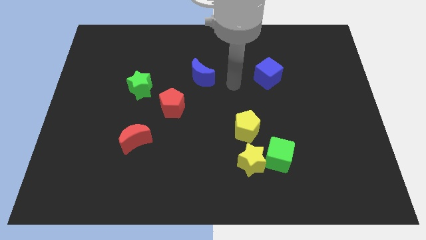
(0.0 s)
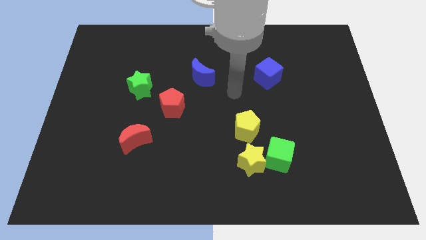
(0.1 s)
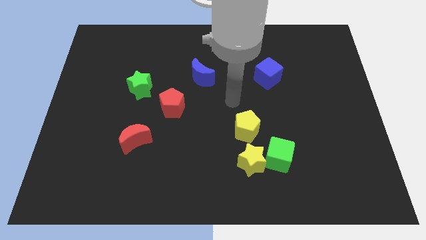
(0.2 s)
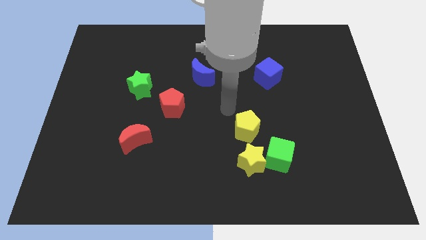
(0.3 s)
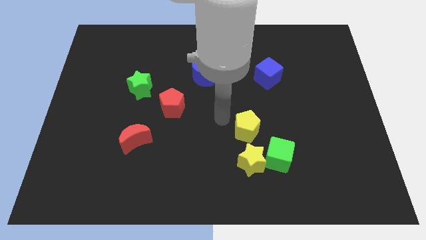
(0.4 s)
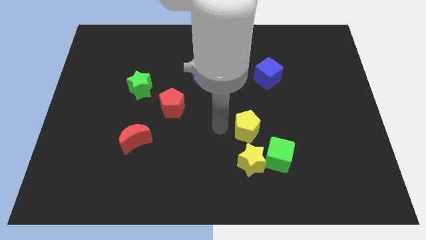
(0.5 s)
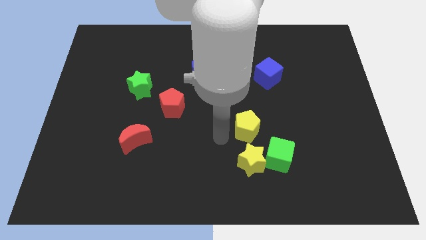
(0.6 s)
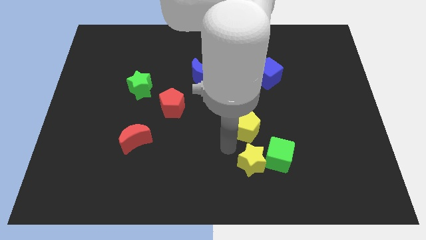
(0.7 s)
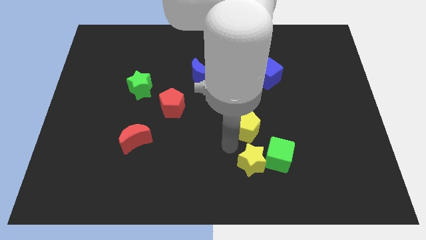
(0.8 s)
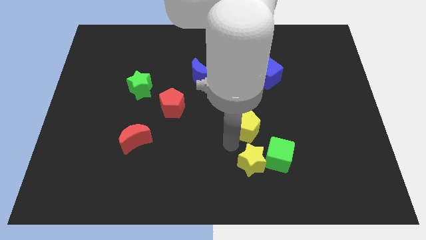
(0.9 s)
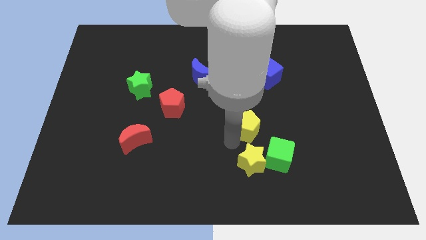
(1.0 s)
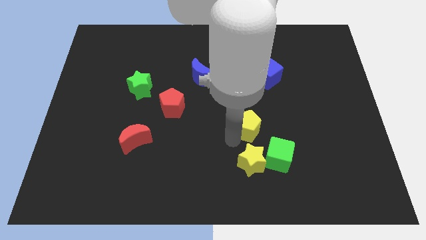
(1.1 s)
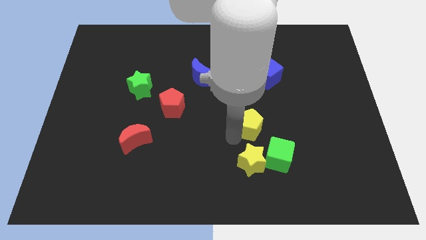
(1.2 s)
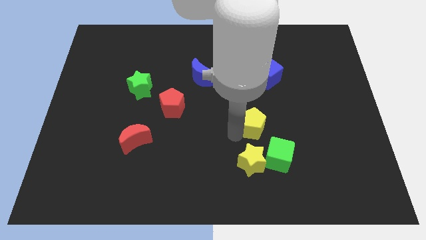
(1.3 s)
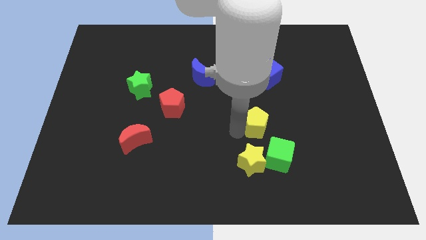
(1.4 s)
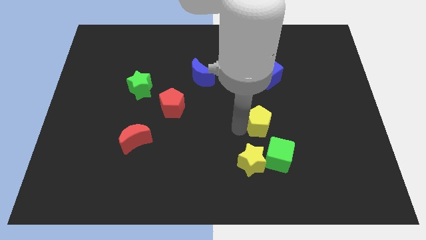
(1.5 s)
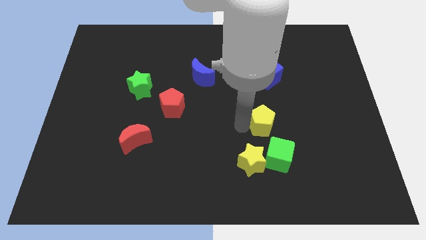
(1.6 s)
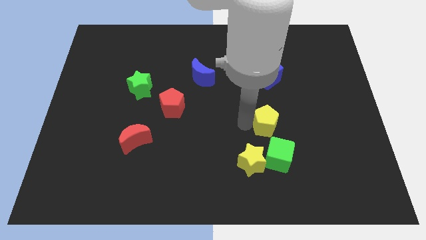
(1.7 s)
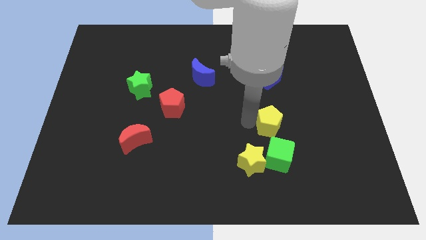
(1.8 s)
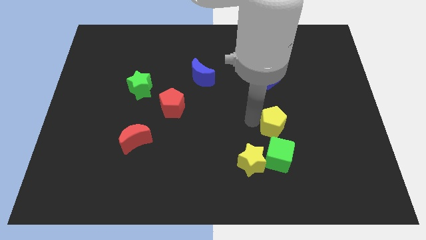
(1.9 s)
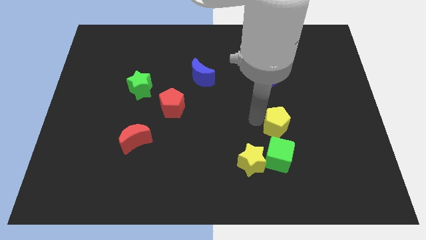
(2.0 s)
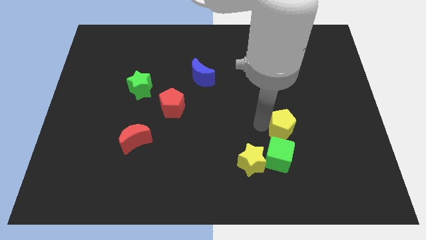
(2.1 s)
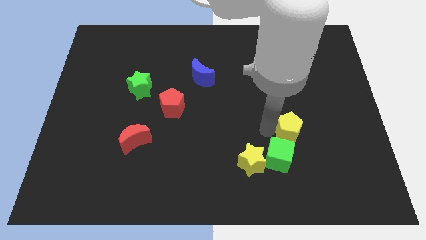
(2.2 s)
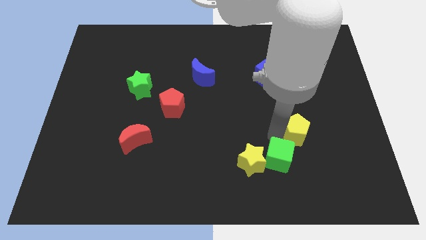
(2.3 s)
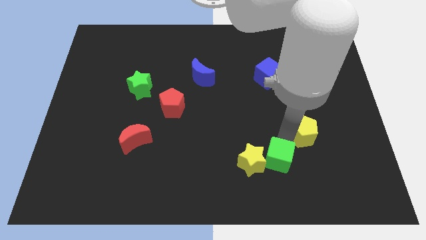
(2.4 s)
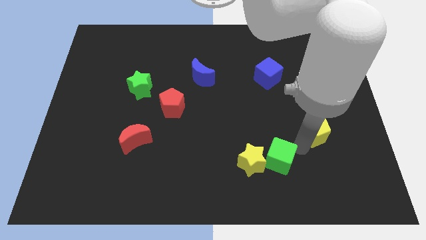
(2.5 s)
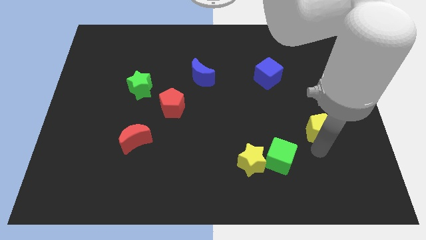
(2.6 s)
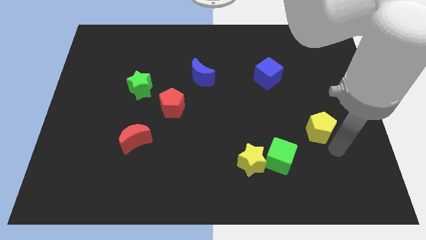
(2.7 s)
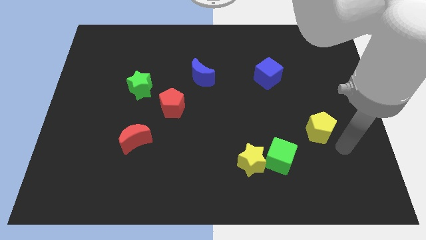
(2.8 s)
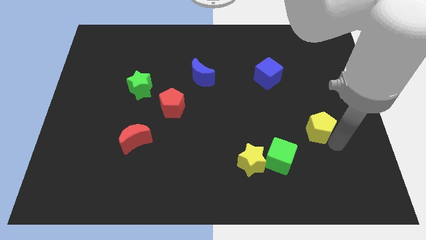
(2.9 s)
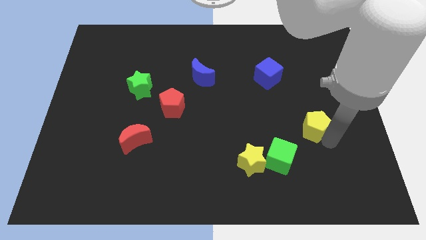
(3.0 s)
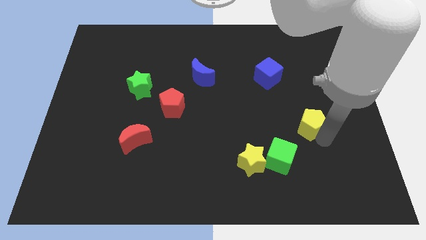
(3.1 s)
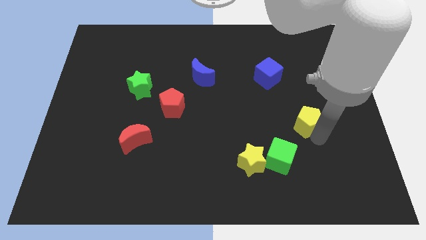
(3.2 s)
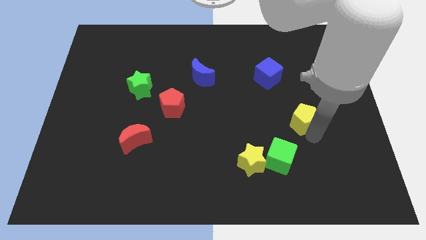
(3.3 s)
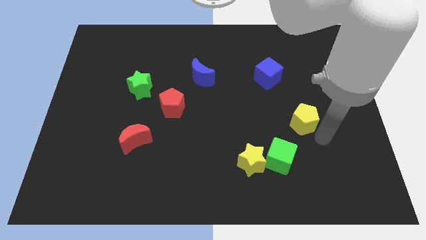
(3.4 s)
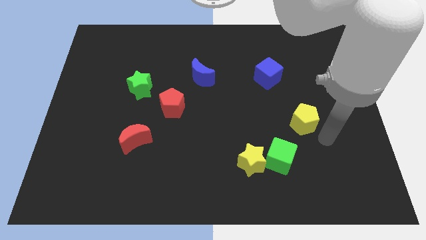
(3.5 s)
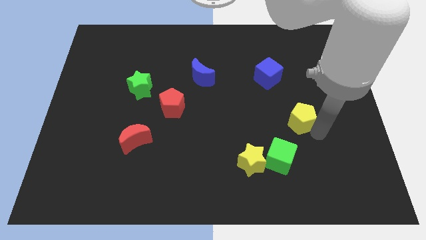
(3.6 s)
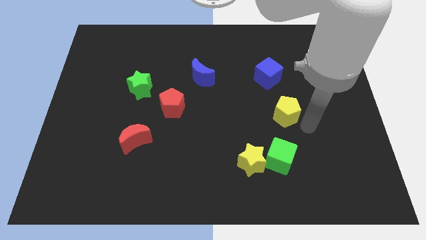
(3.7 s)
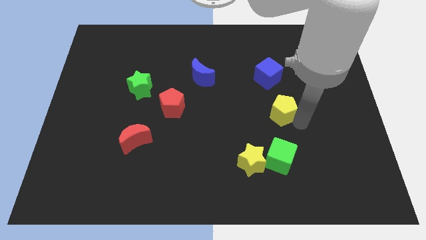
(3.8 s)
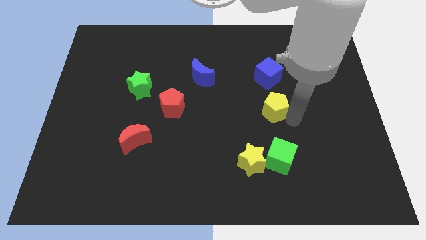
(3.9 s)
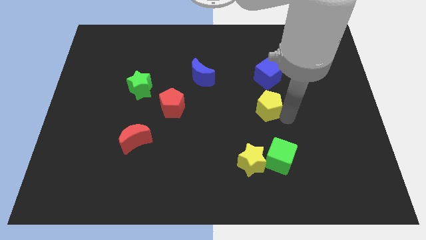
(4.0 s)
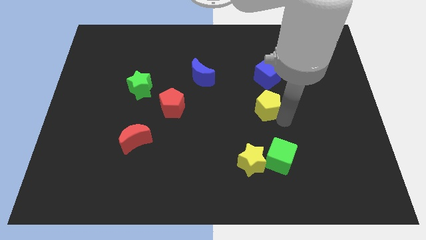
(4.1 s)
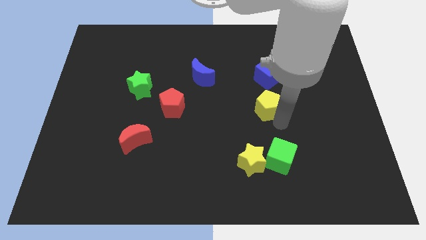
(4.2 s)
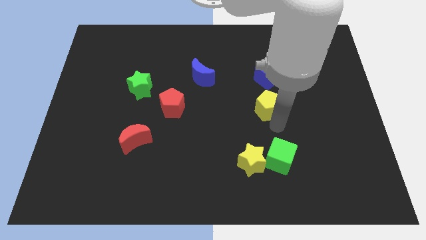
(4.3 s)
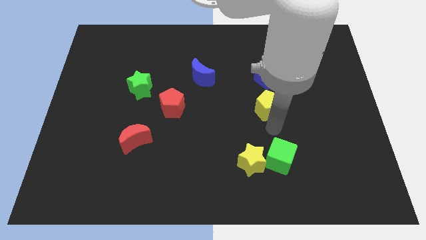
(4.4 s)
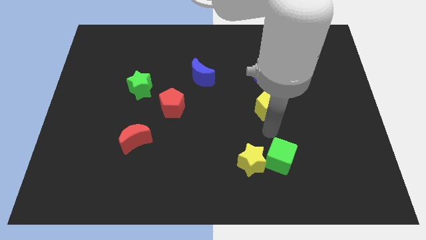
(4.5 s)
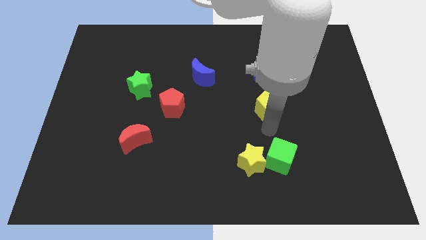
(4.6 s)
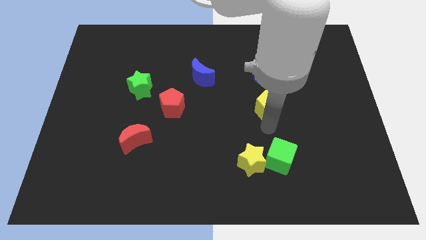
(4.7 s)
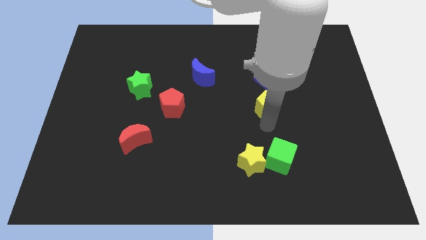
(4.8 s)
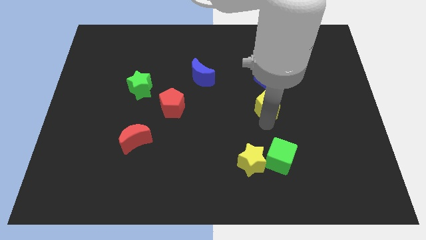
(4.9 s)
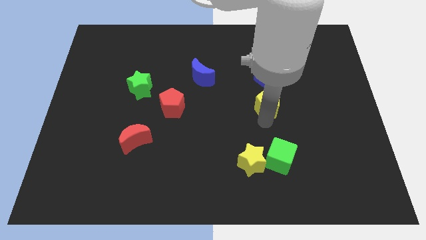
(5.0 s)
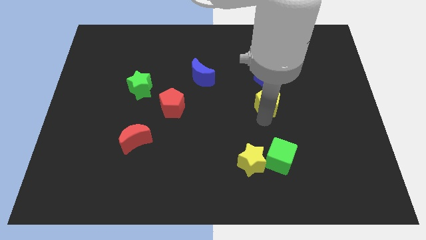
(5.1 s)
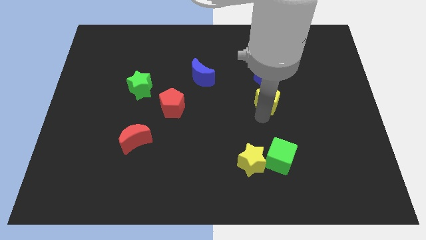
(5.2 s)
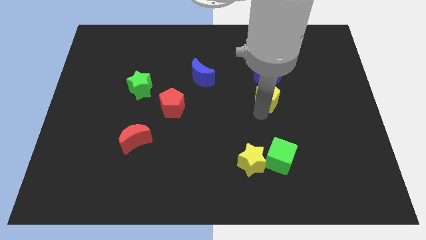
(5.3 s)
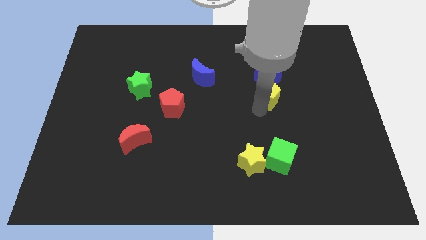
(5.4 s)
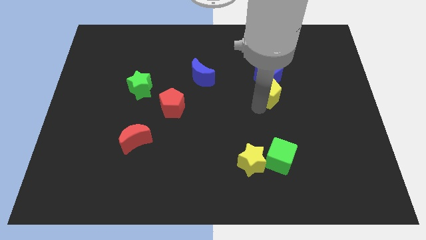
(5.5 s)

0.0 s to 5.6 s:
move the yellow pentagon towards the blue cube

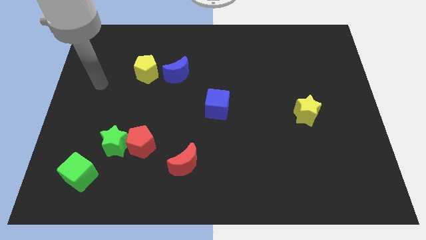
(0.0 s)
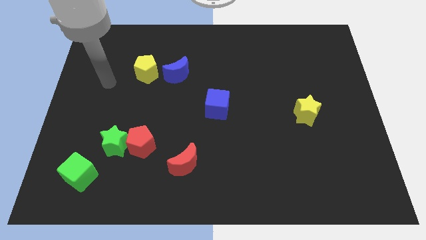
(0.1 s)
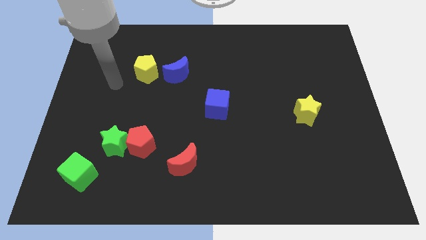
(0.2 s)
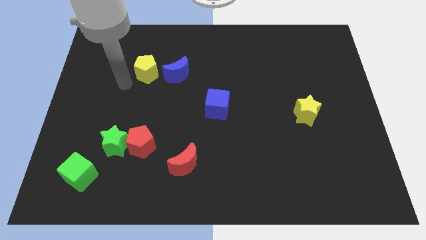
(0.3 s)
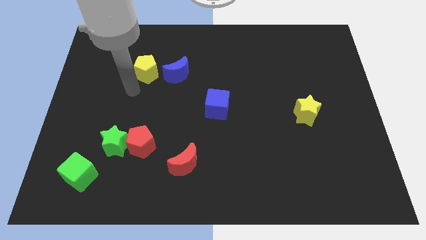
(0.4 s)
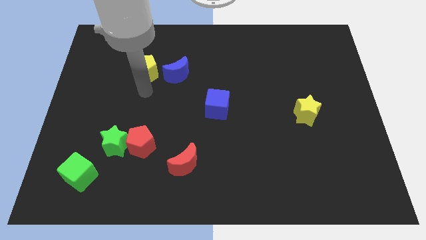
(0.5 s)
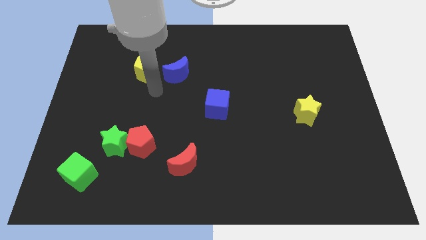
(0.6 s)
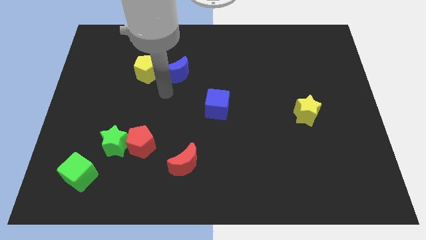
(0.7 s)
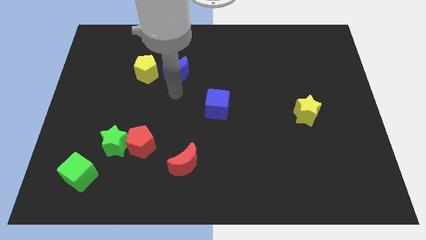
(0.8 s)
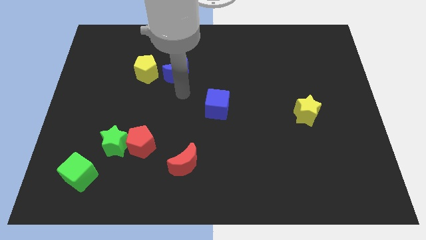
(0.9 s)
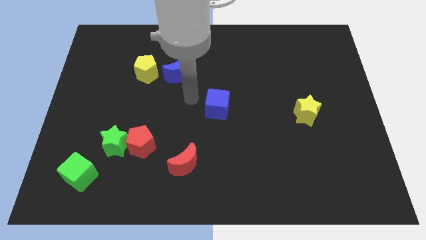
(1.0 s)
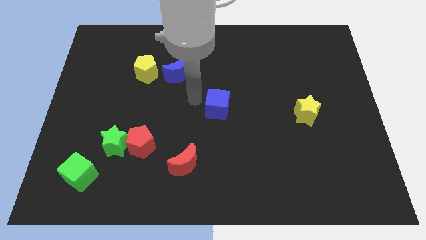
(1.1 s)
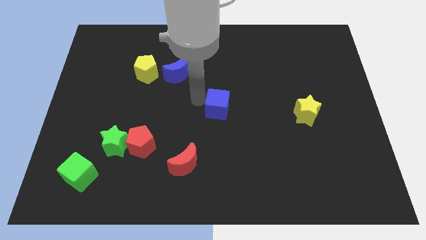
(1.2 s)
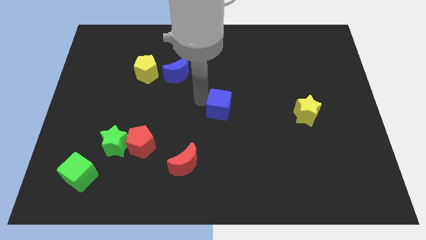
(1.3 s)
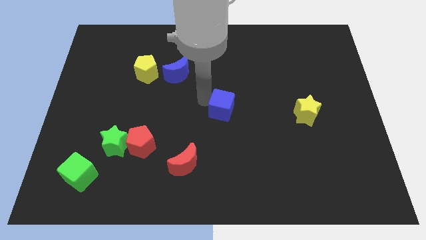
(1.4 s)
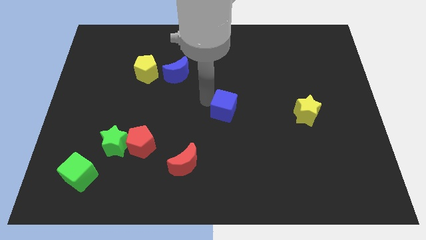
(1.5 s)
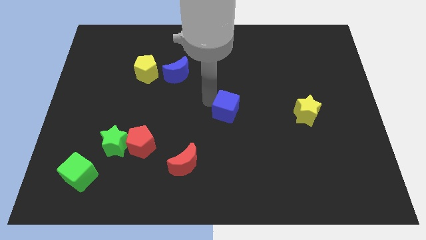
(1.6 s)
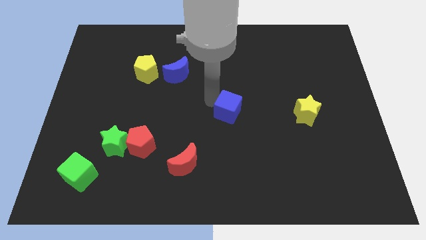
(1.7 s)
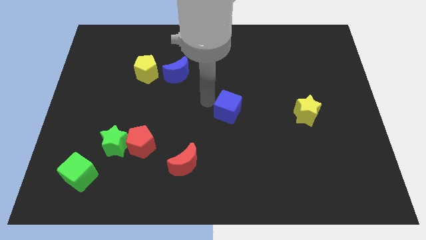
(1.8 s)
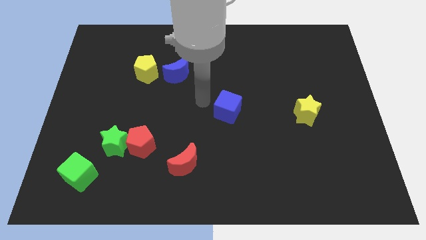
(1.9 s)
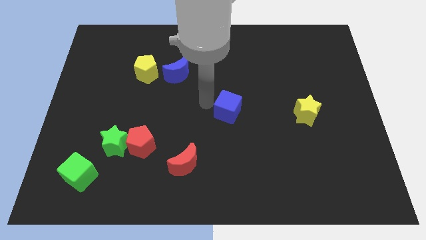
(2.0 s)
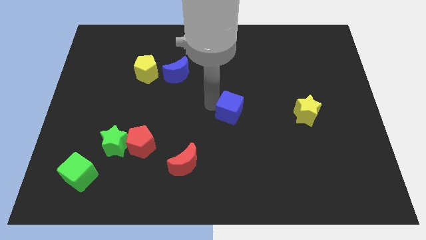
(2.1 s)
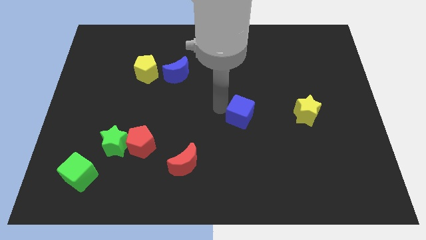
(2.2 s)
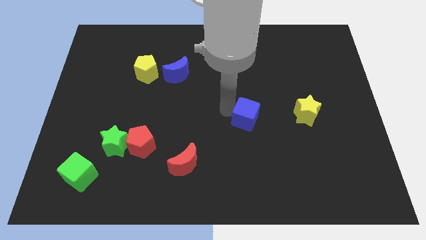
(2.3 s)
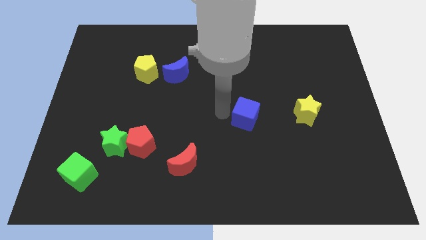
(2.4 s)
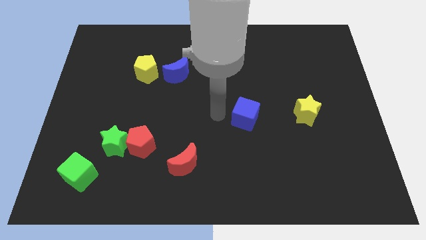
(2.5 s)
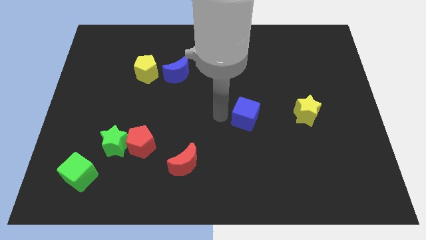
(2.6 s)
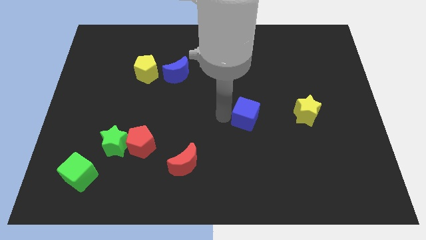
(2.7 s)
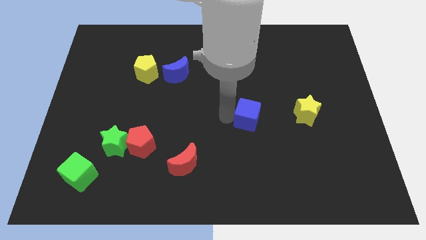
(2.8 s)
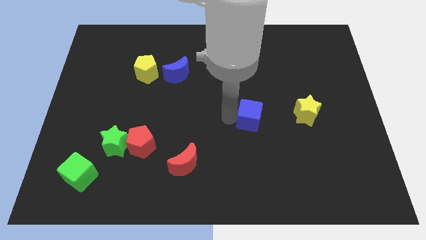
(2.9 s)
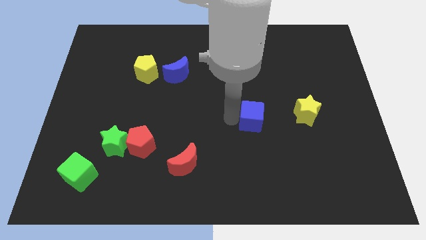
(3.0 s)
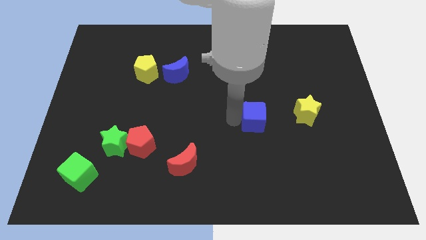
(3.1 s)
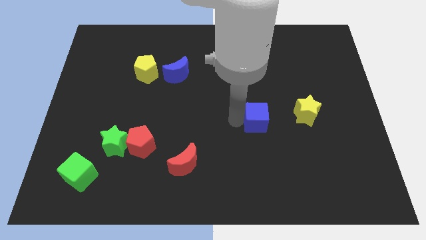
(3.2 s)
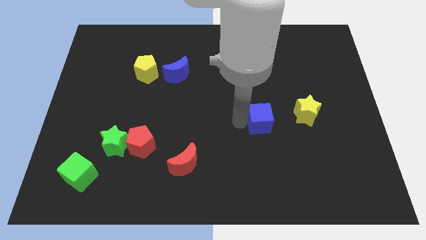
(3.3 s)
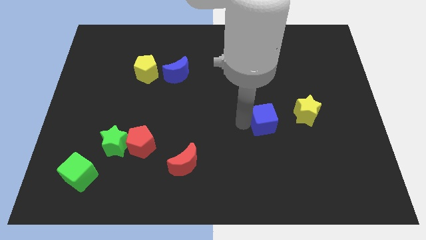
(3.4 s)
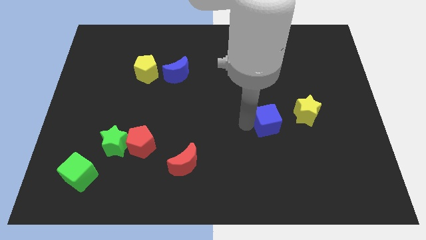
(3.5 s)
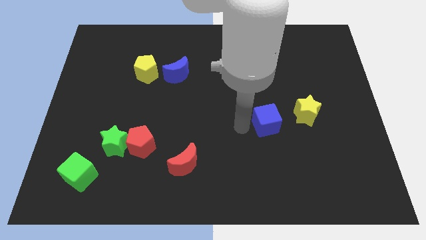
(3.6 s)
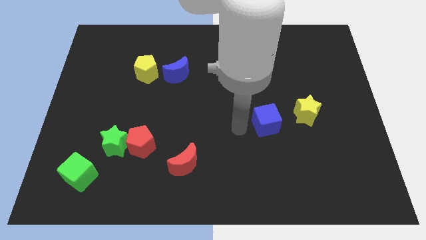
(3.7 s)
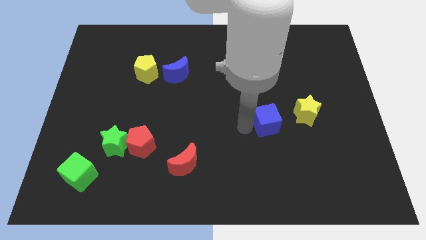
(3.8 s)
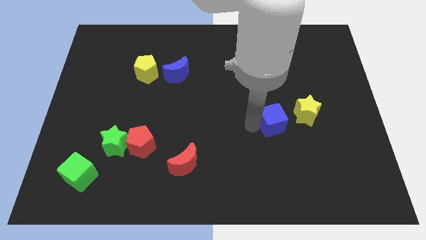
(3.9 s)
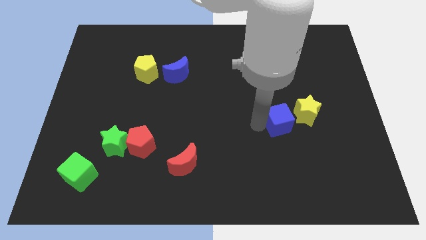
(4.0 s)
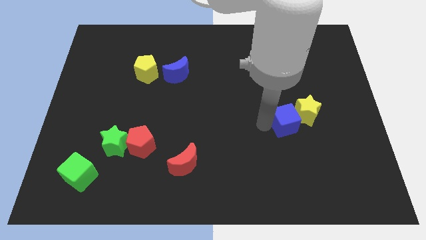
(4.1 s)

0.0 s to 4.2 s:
put the blue cube towards the yellow star
